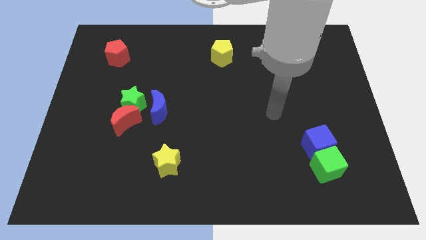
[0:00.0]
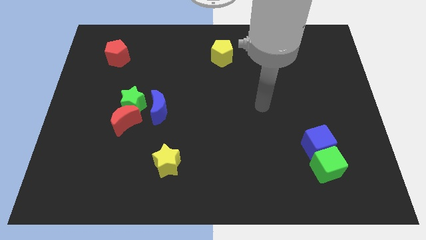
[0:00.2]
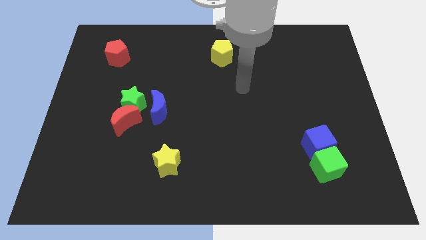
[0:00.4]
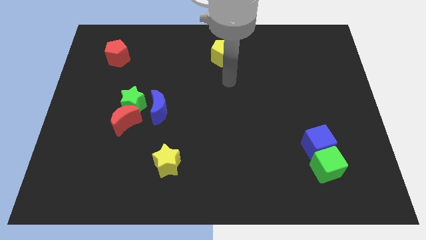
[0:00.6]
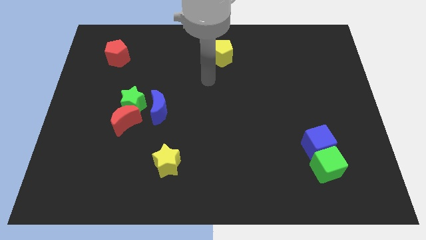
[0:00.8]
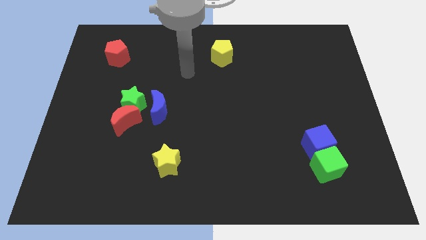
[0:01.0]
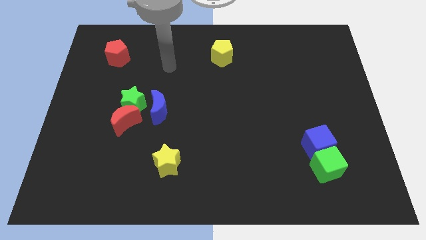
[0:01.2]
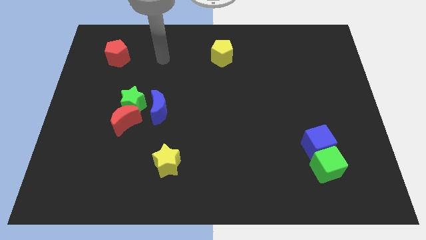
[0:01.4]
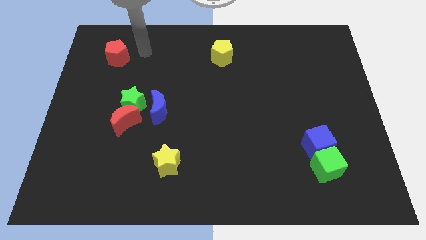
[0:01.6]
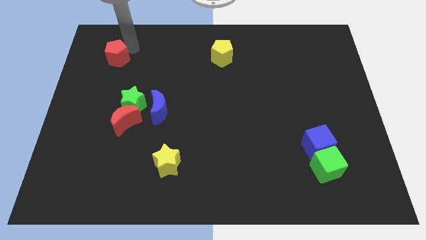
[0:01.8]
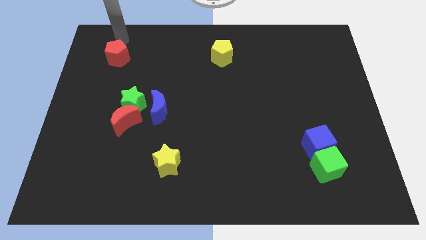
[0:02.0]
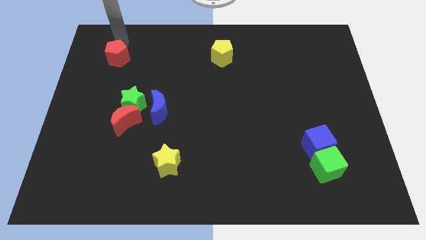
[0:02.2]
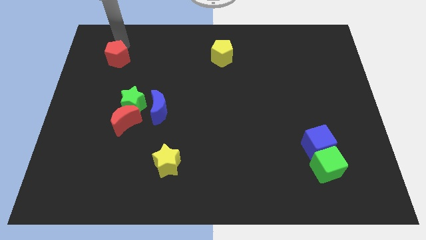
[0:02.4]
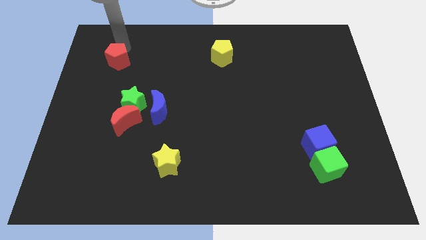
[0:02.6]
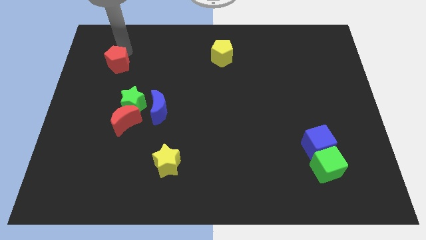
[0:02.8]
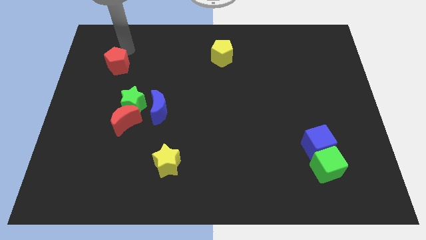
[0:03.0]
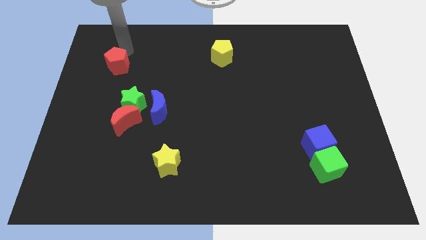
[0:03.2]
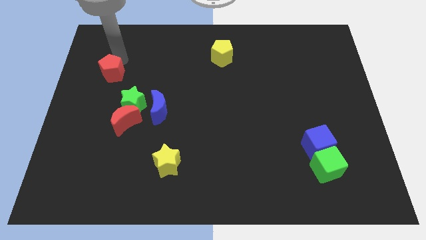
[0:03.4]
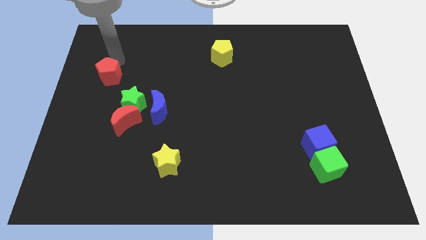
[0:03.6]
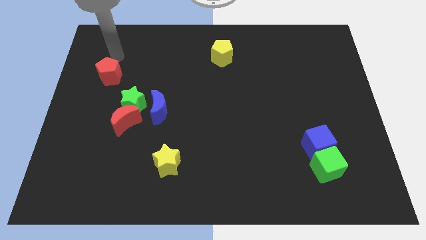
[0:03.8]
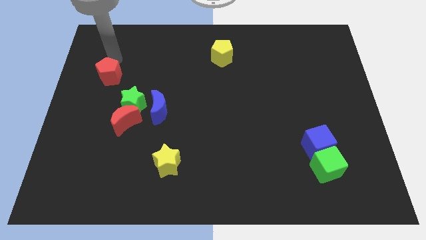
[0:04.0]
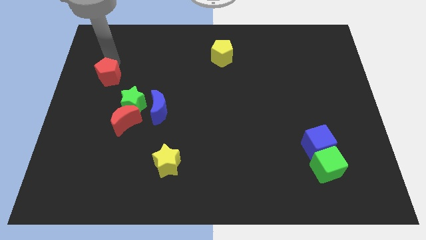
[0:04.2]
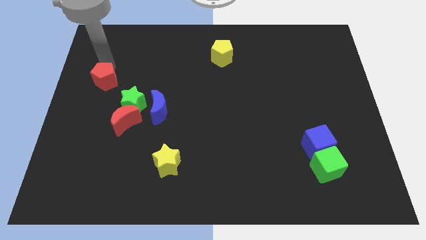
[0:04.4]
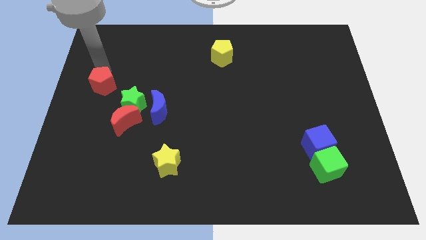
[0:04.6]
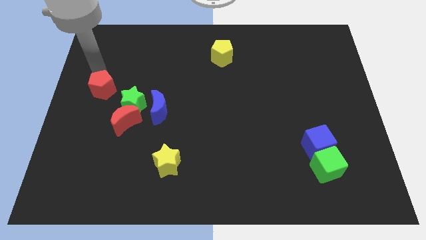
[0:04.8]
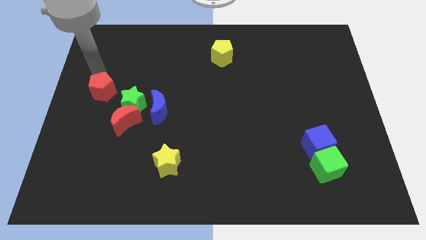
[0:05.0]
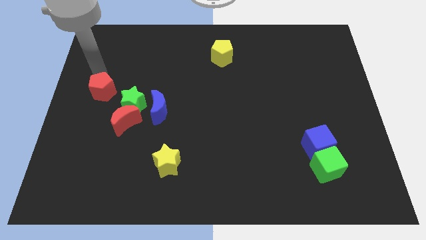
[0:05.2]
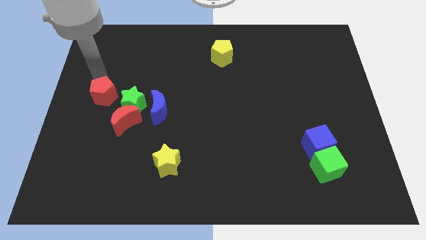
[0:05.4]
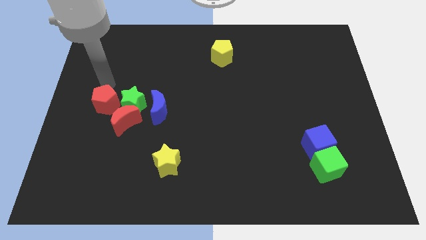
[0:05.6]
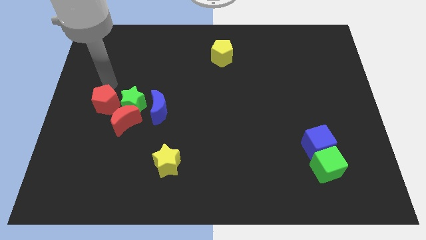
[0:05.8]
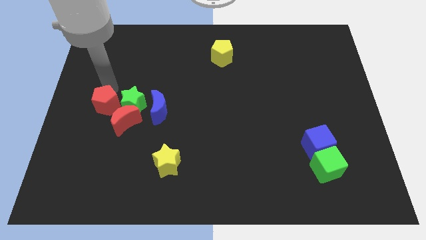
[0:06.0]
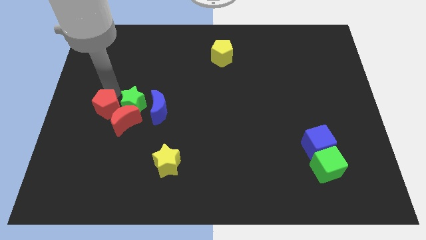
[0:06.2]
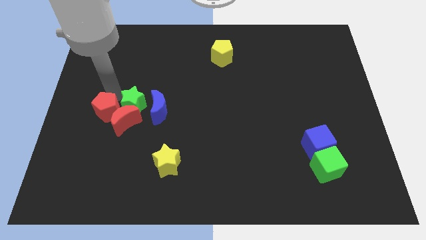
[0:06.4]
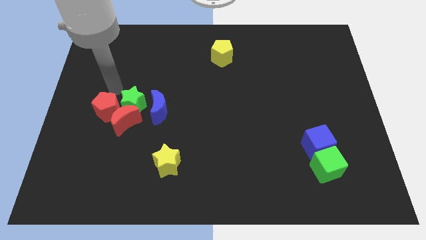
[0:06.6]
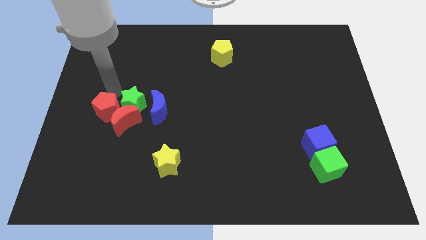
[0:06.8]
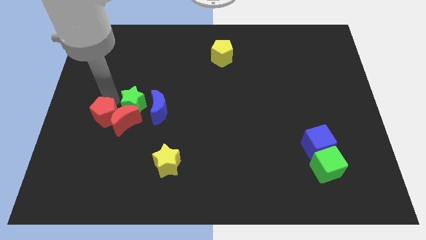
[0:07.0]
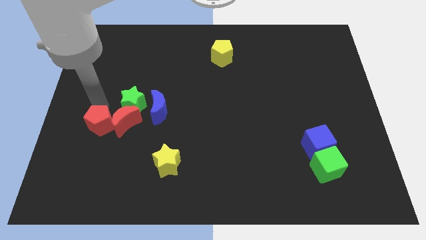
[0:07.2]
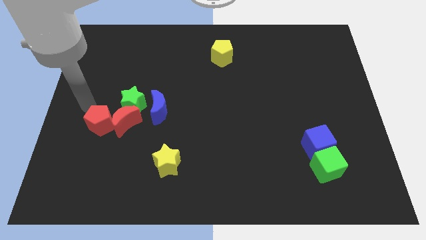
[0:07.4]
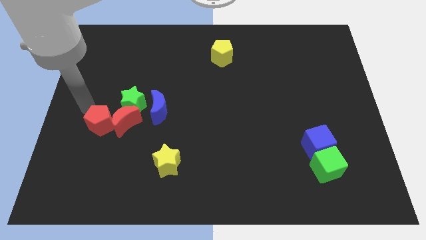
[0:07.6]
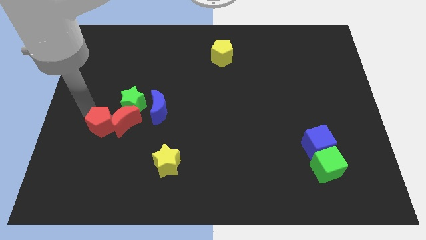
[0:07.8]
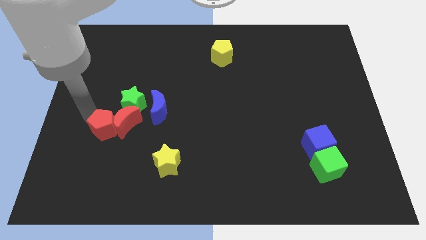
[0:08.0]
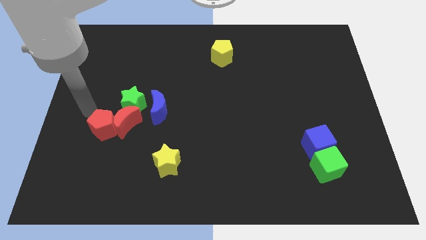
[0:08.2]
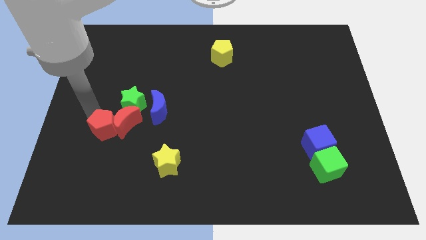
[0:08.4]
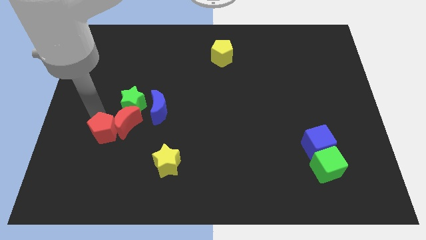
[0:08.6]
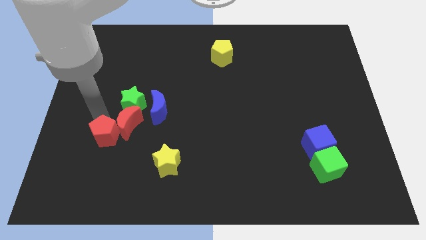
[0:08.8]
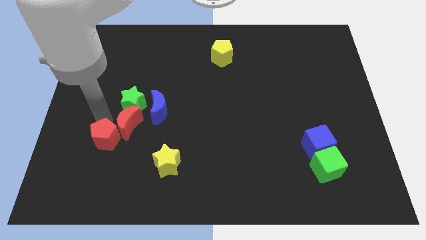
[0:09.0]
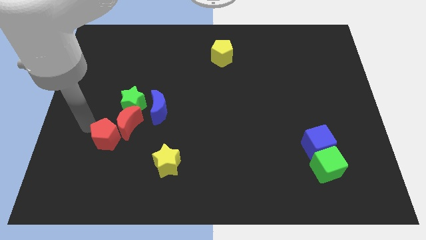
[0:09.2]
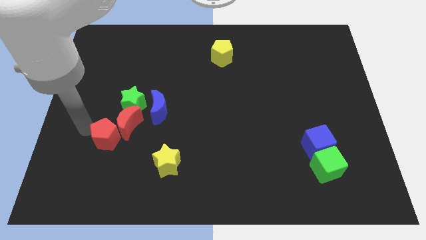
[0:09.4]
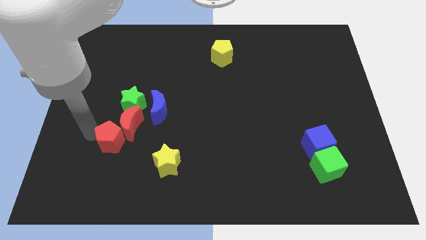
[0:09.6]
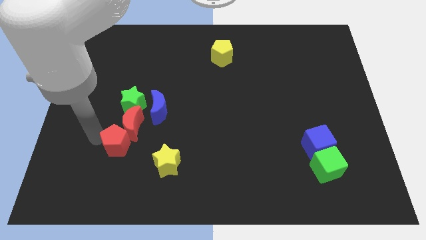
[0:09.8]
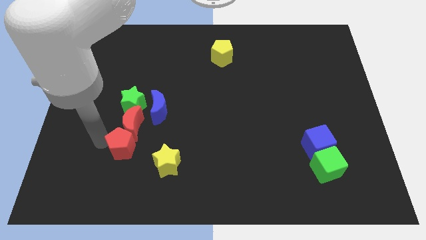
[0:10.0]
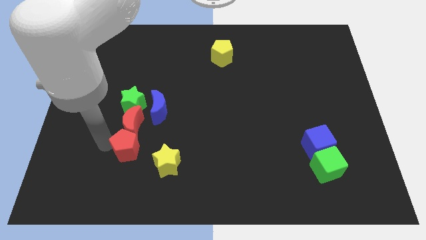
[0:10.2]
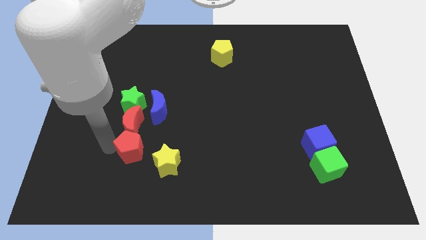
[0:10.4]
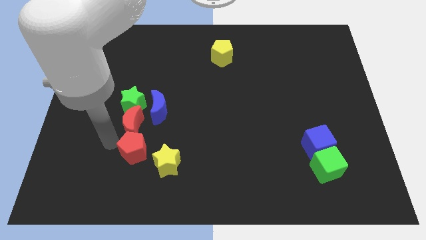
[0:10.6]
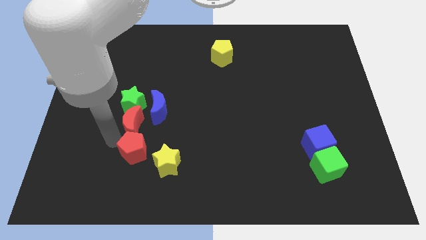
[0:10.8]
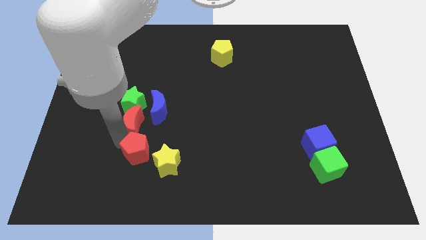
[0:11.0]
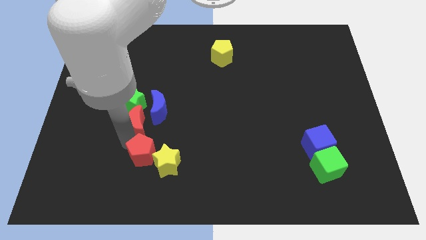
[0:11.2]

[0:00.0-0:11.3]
push the red pentagon towards the yellow star

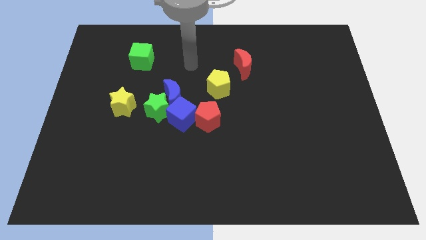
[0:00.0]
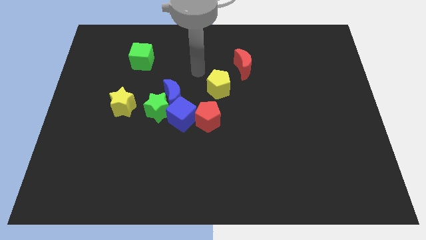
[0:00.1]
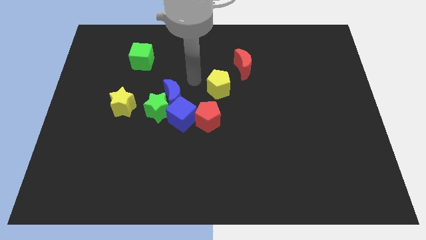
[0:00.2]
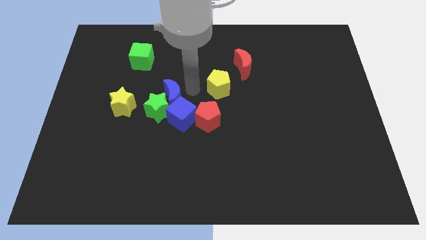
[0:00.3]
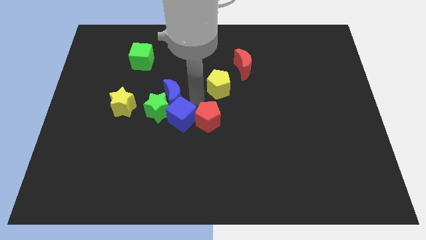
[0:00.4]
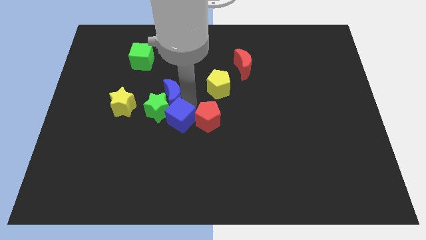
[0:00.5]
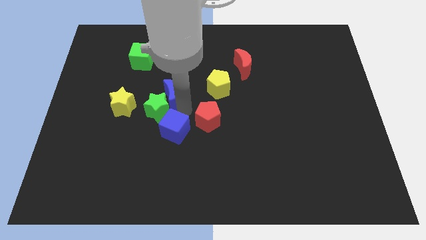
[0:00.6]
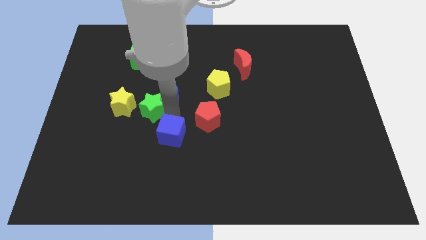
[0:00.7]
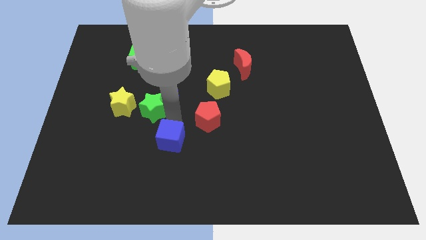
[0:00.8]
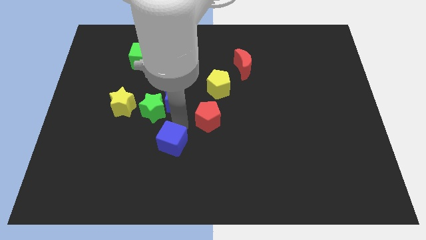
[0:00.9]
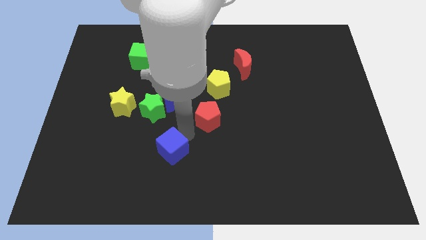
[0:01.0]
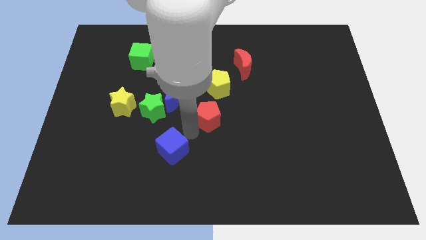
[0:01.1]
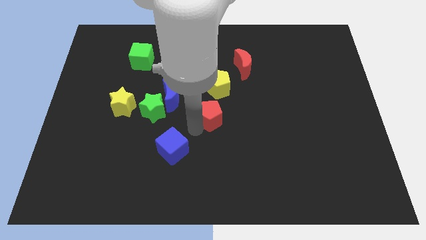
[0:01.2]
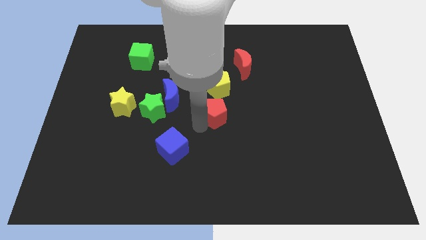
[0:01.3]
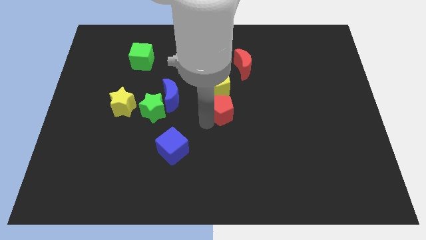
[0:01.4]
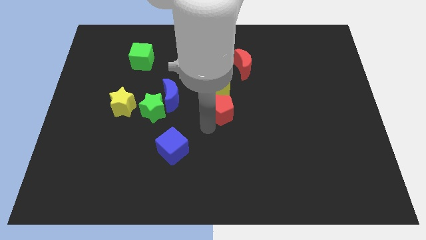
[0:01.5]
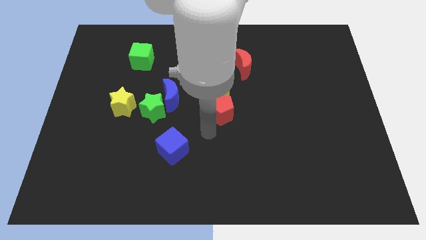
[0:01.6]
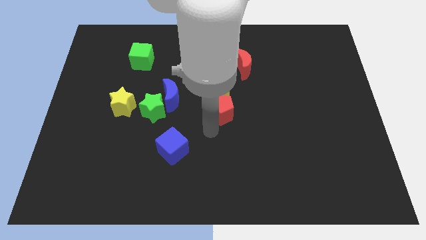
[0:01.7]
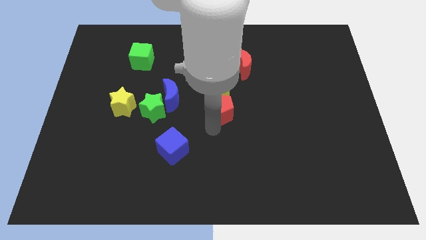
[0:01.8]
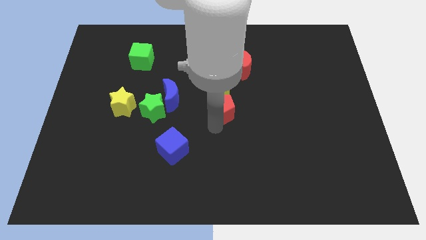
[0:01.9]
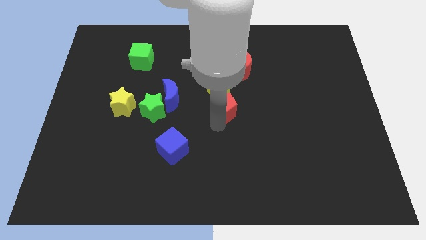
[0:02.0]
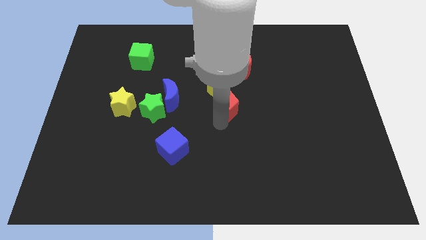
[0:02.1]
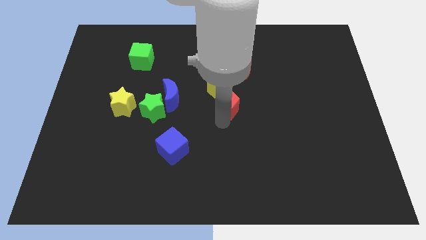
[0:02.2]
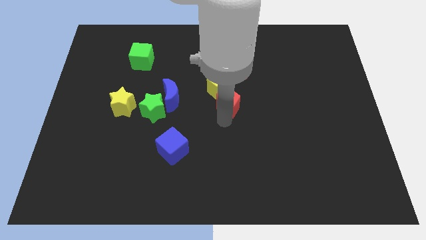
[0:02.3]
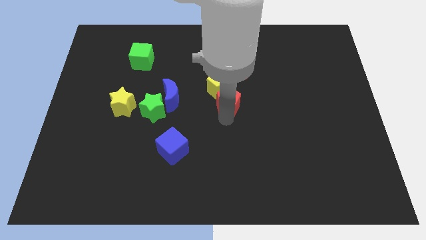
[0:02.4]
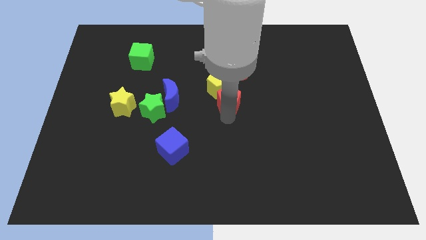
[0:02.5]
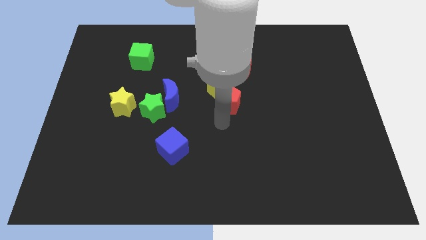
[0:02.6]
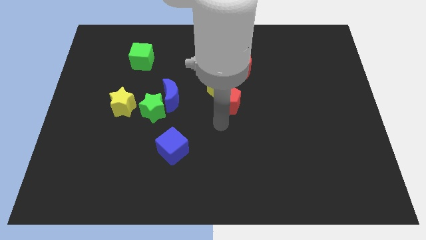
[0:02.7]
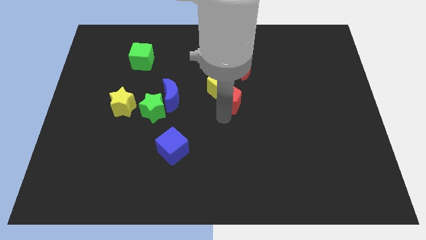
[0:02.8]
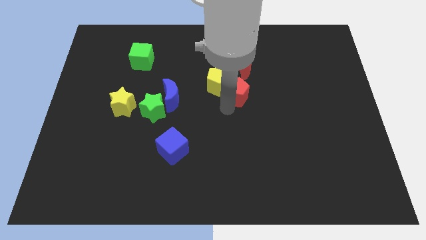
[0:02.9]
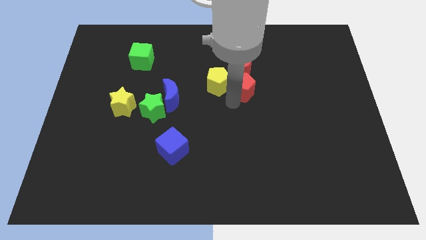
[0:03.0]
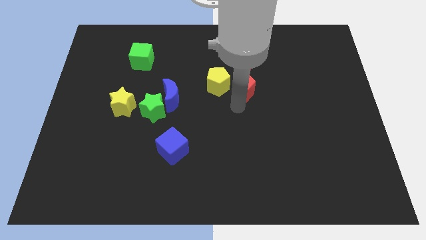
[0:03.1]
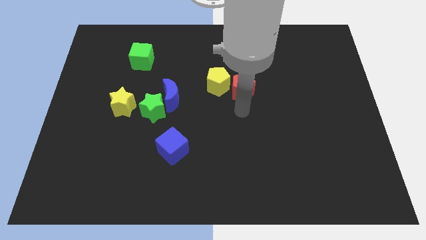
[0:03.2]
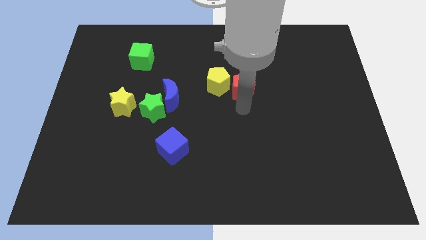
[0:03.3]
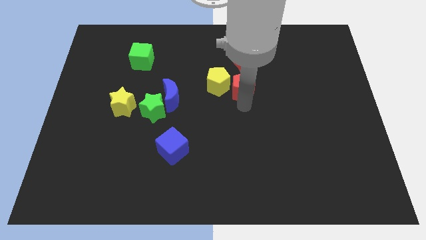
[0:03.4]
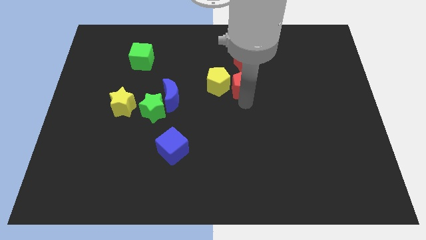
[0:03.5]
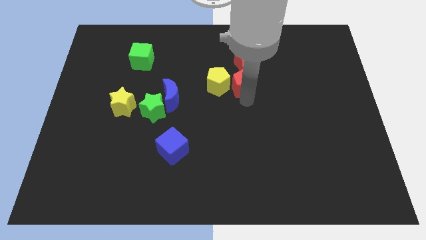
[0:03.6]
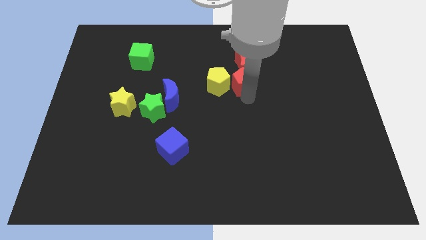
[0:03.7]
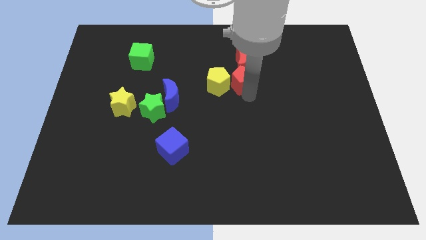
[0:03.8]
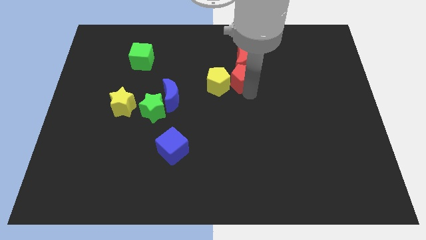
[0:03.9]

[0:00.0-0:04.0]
put the red pentagon close to the red moon
